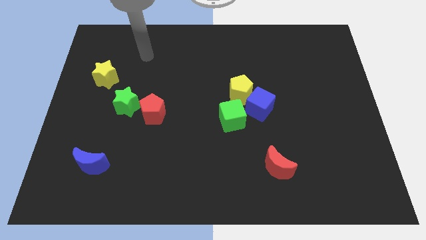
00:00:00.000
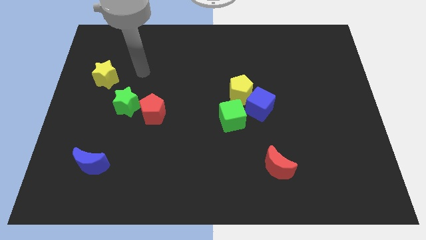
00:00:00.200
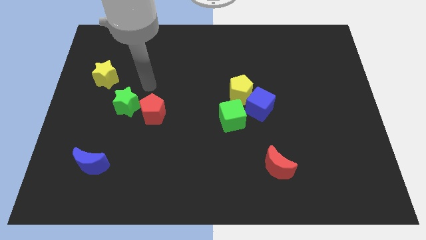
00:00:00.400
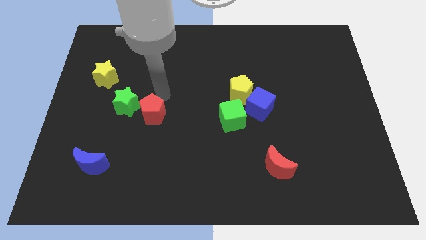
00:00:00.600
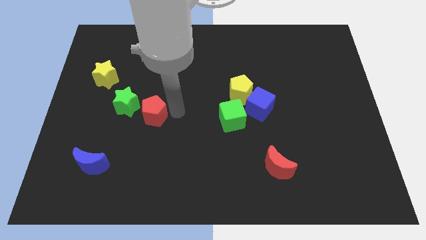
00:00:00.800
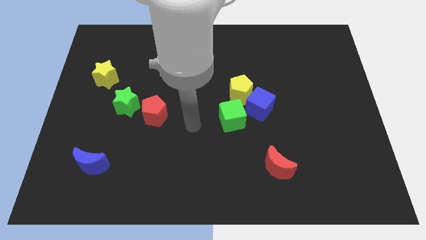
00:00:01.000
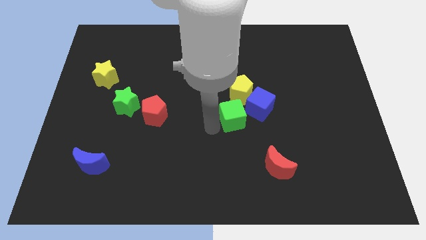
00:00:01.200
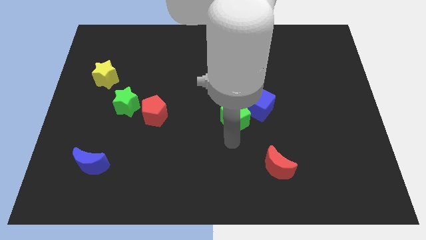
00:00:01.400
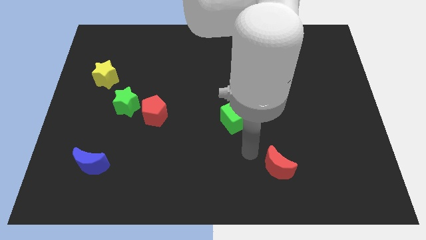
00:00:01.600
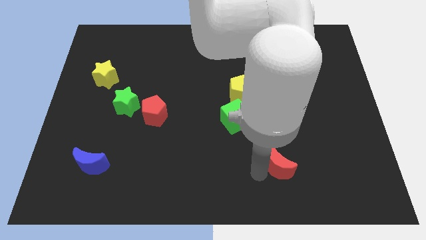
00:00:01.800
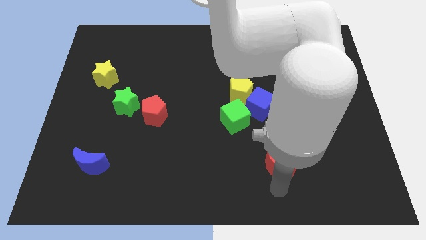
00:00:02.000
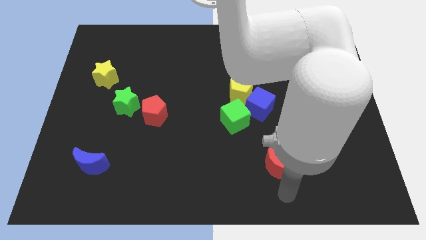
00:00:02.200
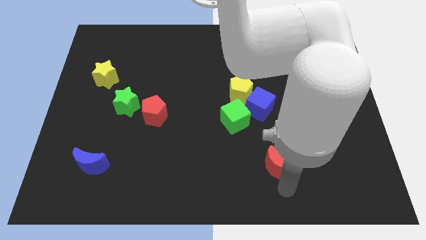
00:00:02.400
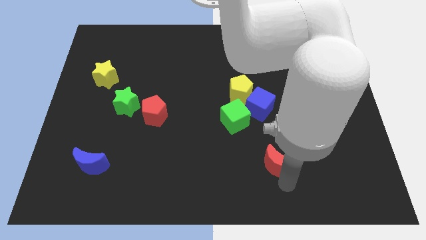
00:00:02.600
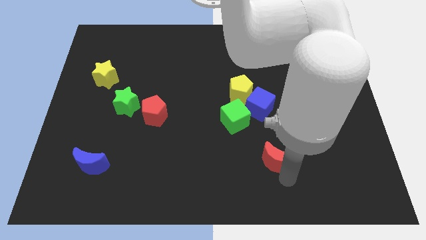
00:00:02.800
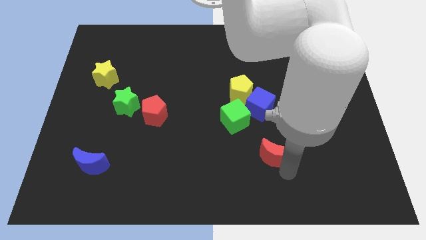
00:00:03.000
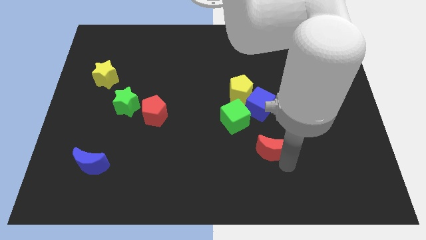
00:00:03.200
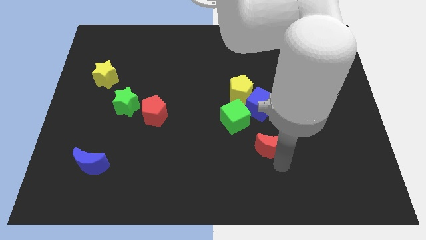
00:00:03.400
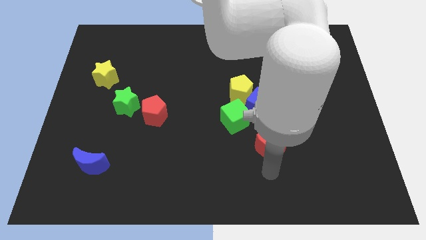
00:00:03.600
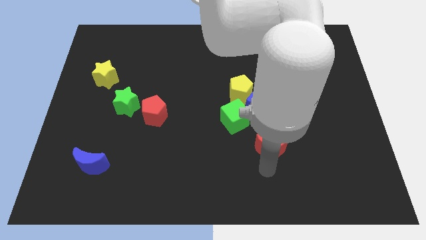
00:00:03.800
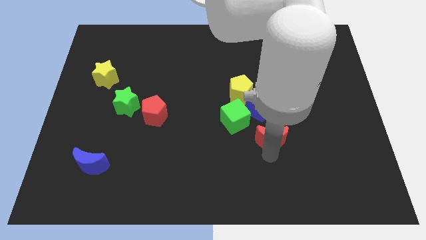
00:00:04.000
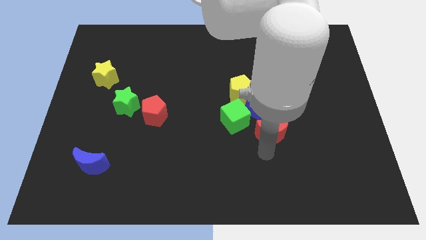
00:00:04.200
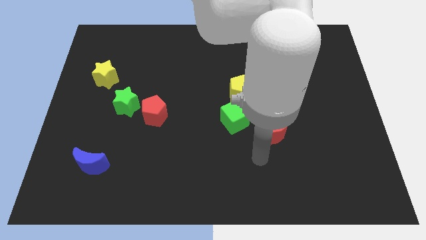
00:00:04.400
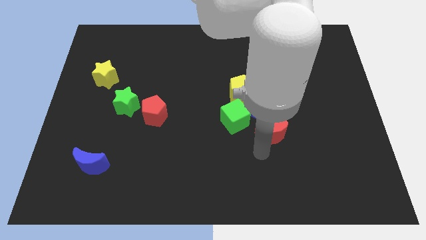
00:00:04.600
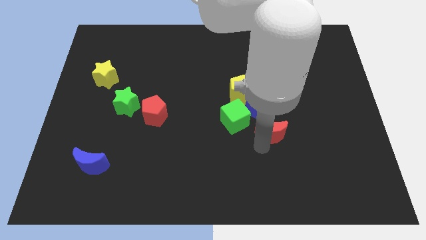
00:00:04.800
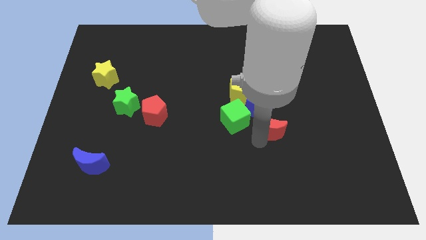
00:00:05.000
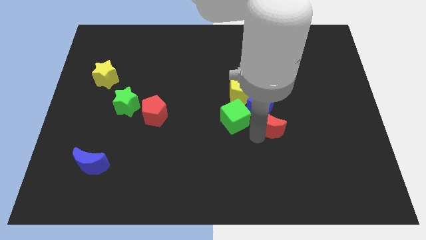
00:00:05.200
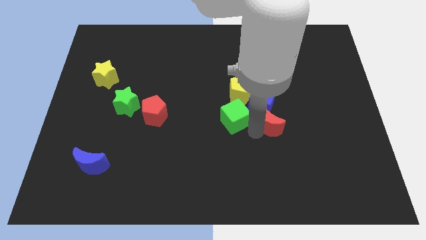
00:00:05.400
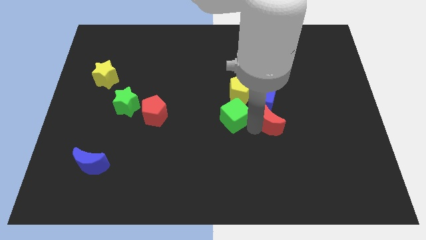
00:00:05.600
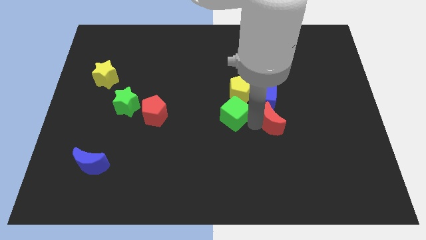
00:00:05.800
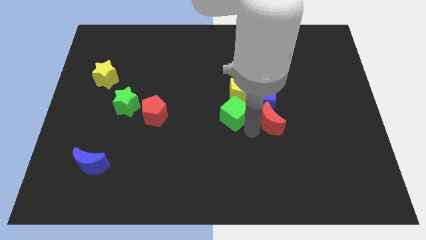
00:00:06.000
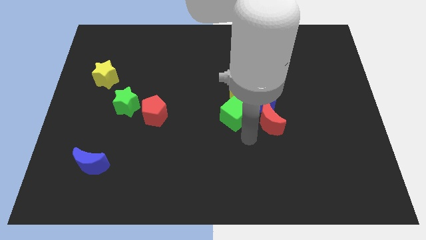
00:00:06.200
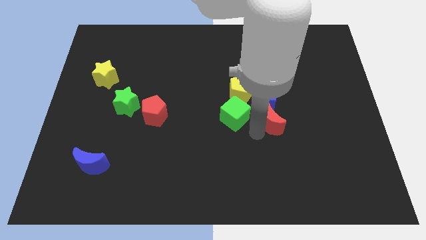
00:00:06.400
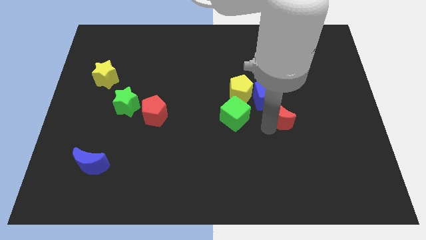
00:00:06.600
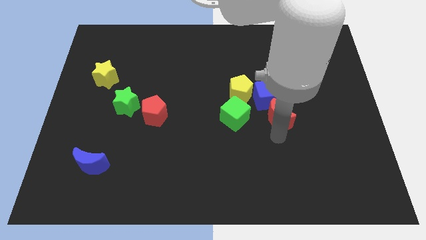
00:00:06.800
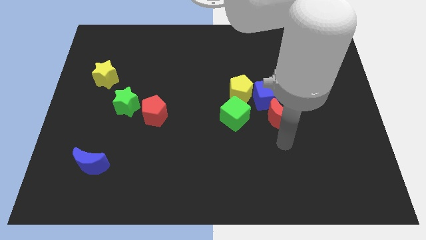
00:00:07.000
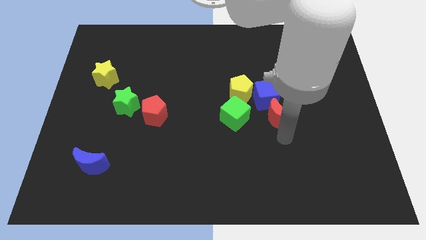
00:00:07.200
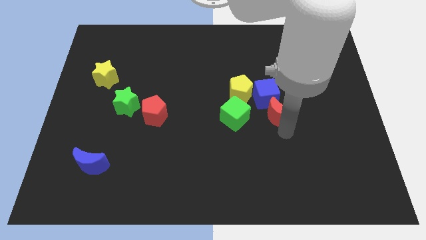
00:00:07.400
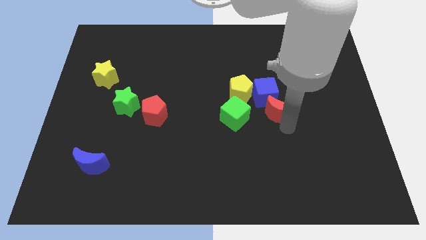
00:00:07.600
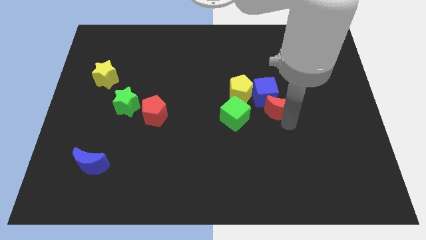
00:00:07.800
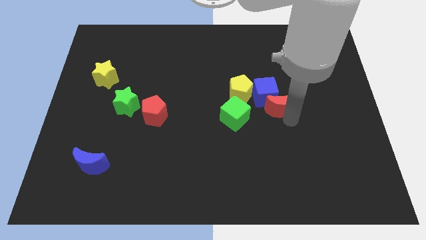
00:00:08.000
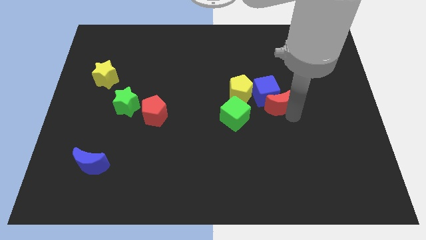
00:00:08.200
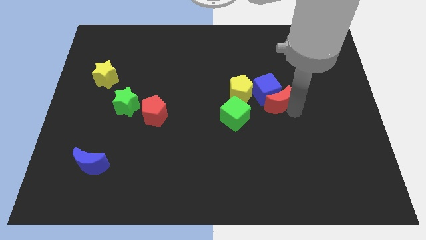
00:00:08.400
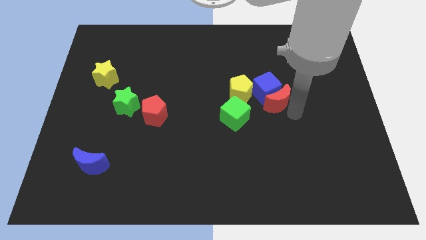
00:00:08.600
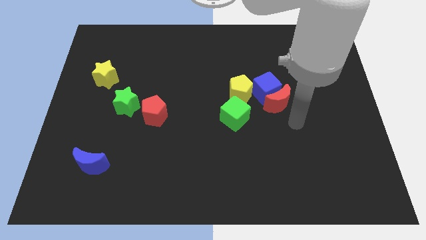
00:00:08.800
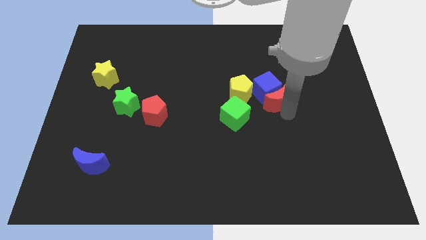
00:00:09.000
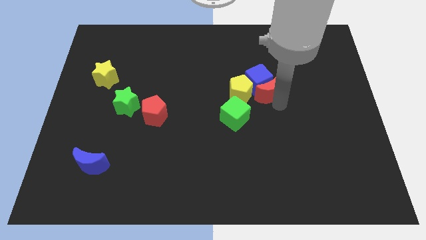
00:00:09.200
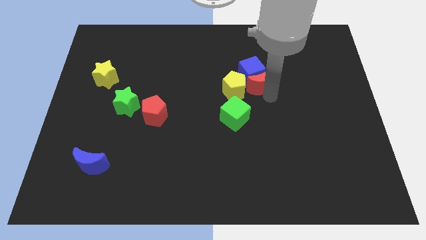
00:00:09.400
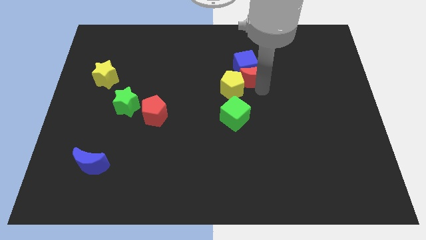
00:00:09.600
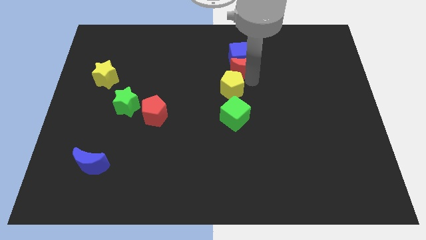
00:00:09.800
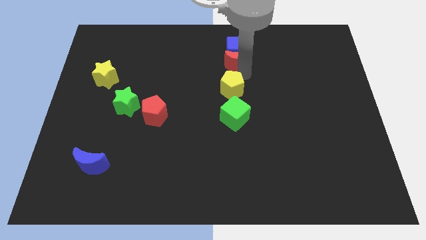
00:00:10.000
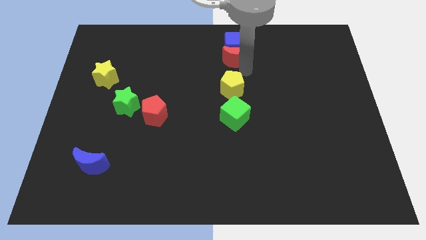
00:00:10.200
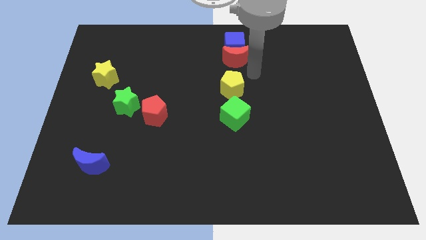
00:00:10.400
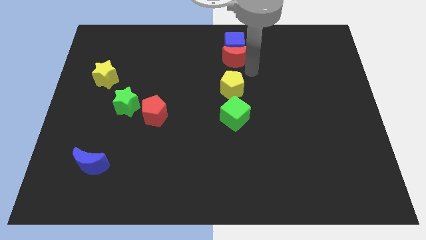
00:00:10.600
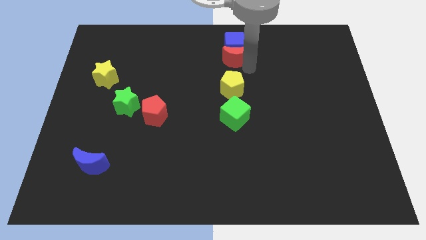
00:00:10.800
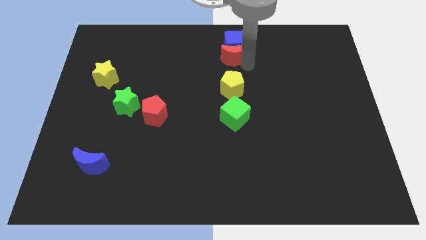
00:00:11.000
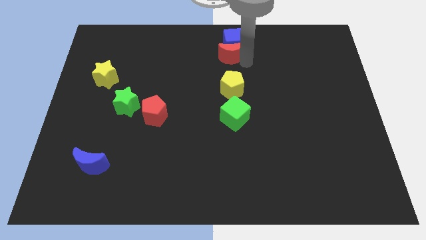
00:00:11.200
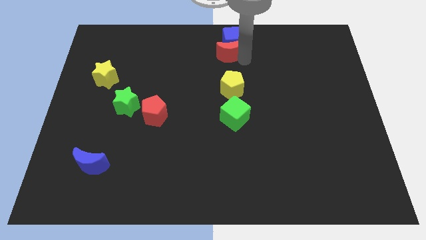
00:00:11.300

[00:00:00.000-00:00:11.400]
slide the red moon to the top

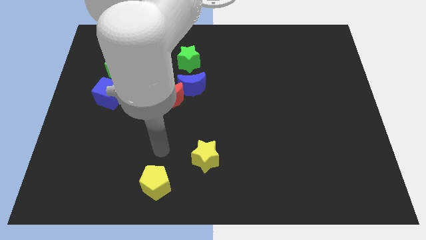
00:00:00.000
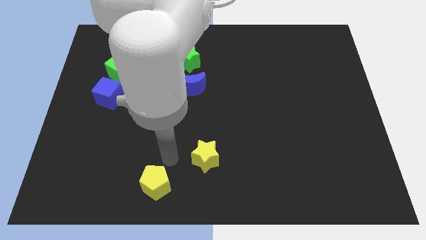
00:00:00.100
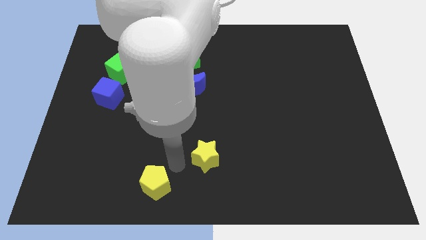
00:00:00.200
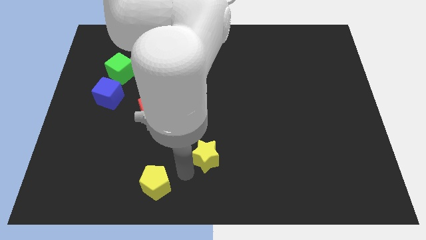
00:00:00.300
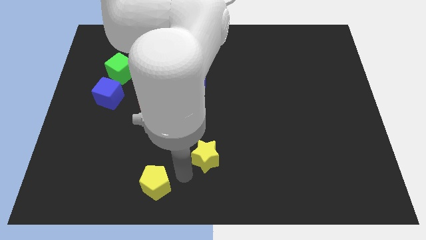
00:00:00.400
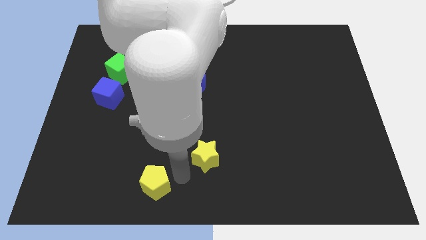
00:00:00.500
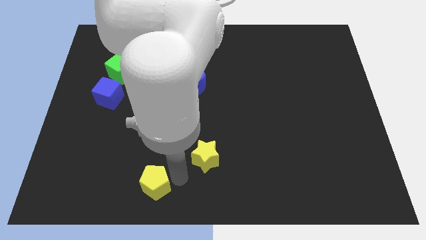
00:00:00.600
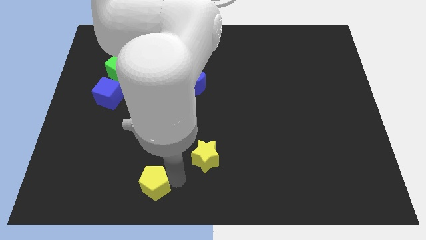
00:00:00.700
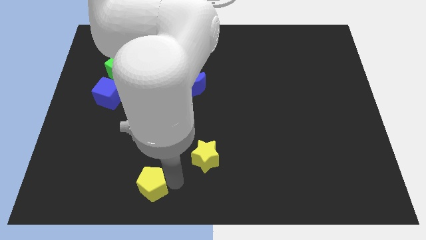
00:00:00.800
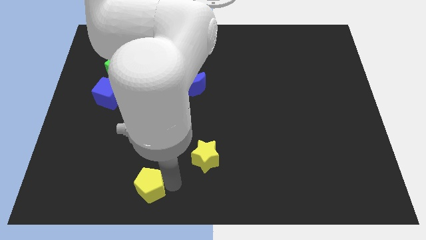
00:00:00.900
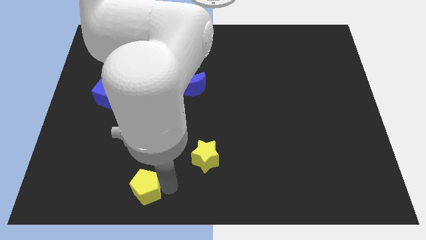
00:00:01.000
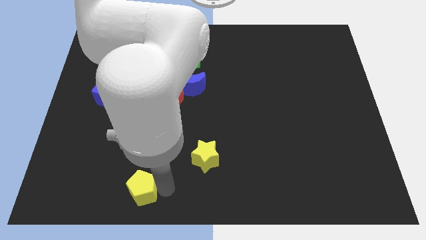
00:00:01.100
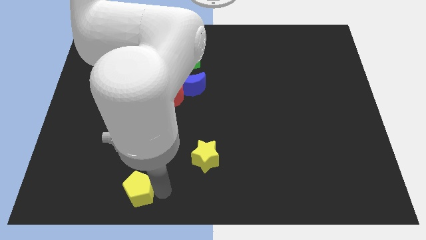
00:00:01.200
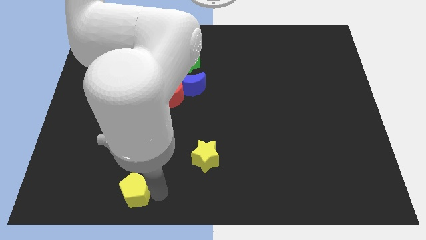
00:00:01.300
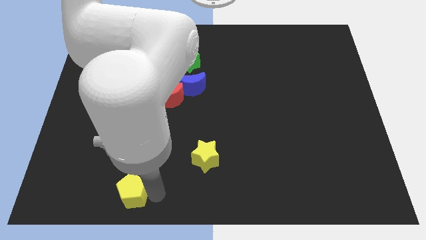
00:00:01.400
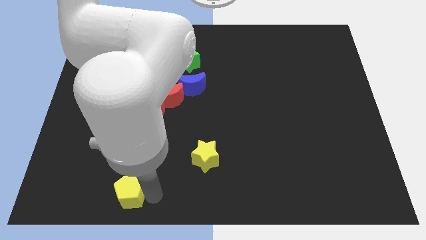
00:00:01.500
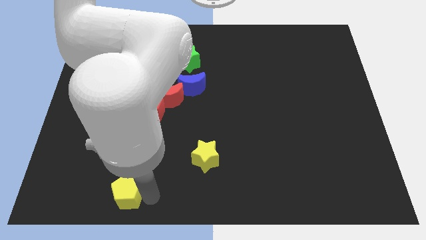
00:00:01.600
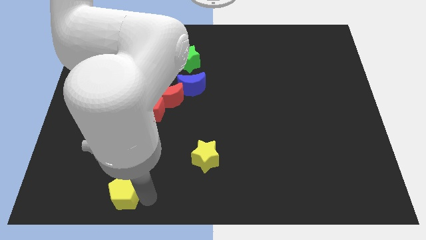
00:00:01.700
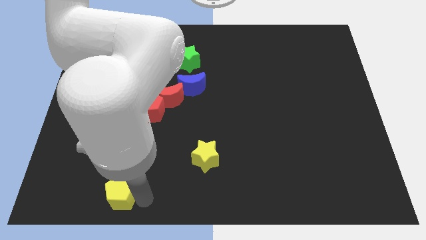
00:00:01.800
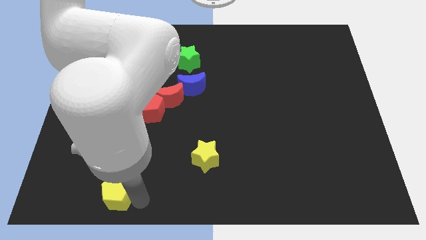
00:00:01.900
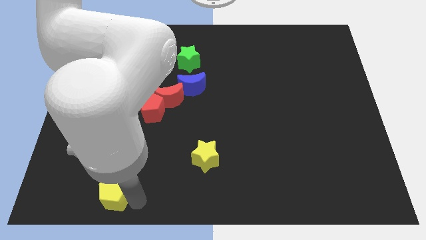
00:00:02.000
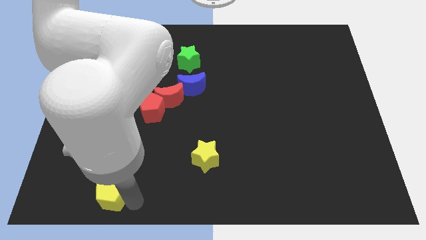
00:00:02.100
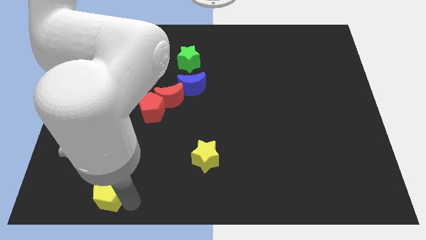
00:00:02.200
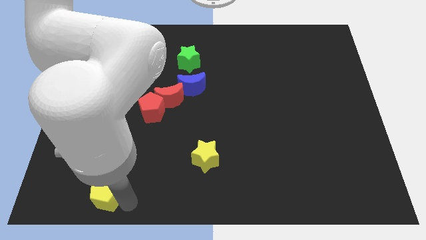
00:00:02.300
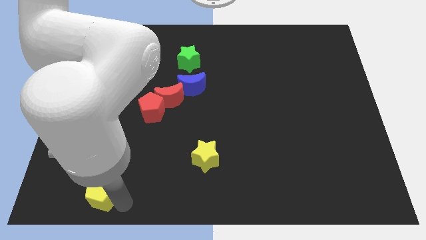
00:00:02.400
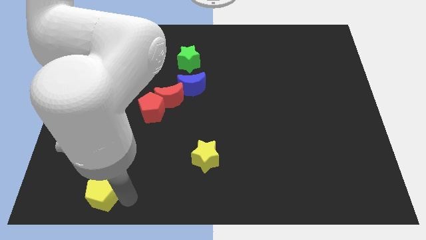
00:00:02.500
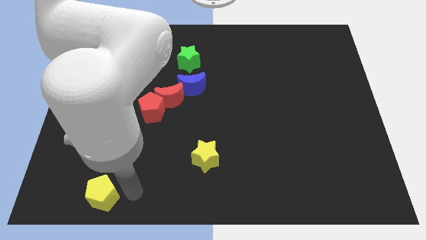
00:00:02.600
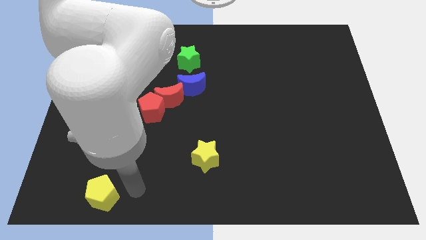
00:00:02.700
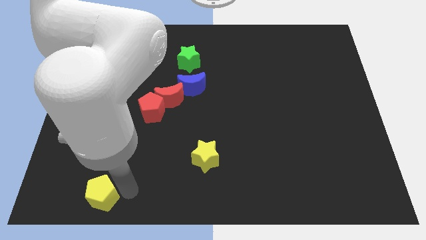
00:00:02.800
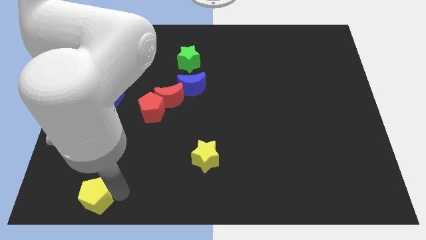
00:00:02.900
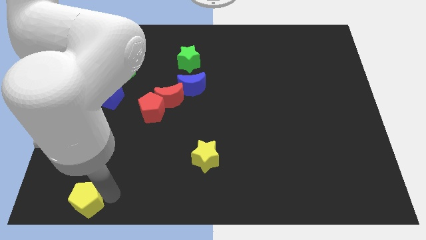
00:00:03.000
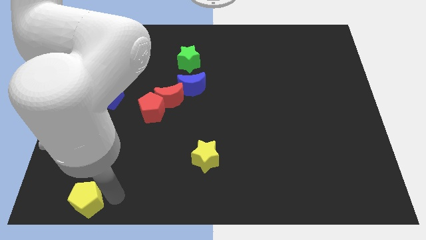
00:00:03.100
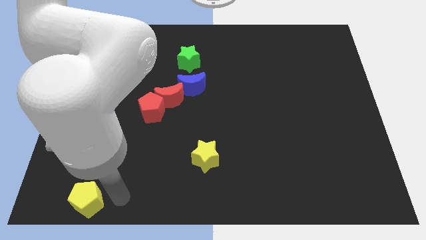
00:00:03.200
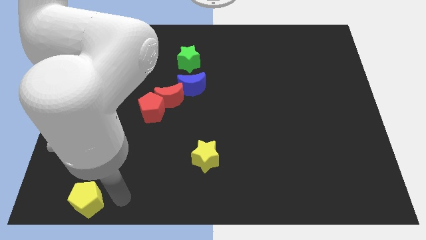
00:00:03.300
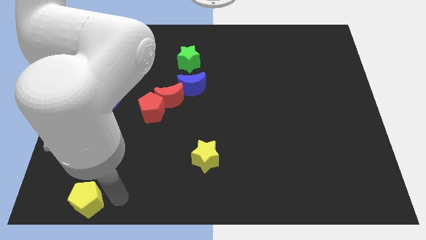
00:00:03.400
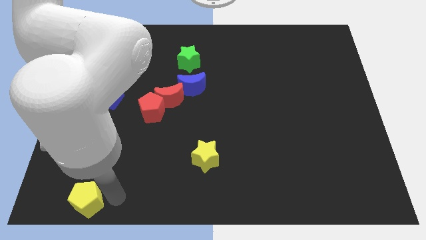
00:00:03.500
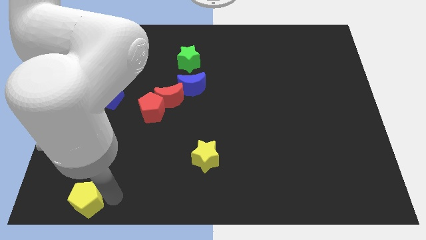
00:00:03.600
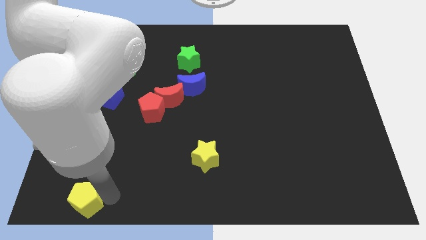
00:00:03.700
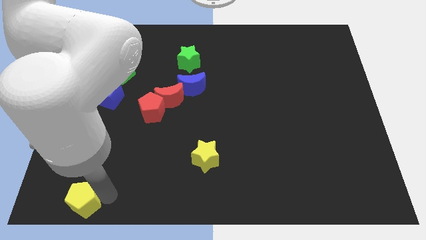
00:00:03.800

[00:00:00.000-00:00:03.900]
push the yellow pentagon to the lower left corner
